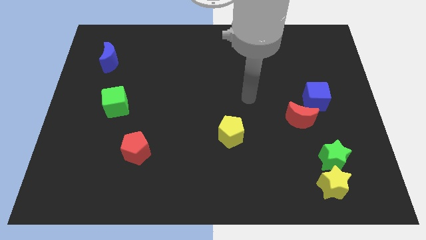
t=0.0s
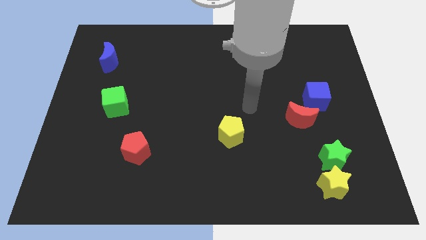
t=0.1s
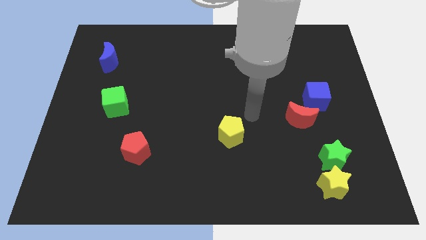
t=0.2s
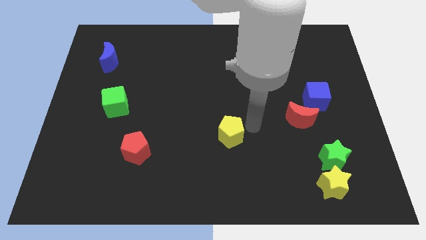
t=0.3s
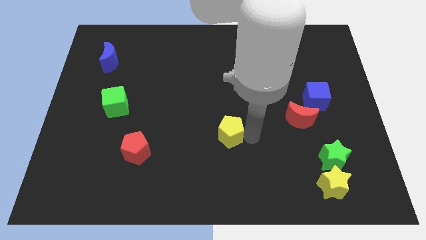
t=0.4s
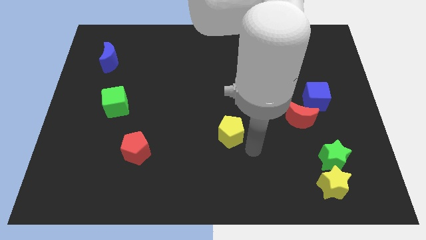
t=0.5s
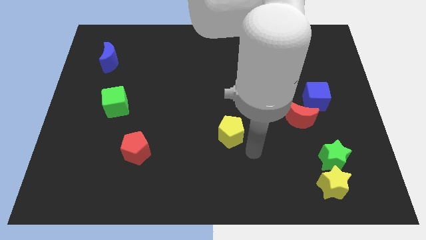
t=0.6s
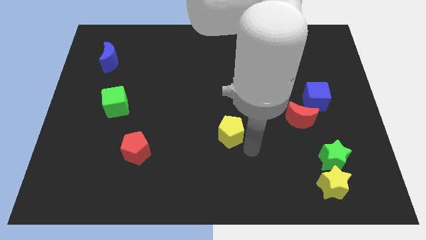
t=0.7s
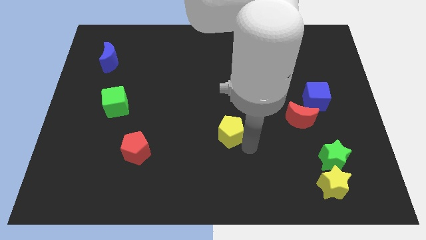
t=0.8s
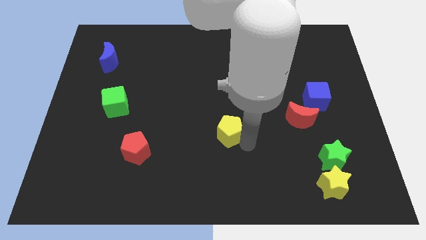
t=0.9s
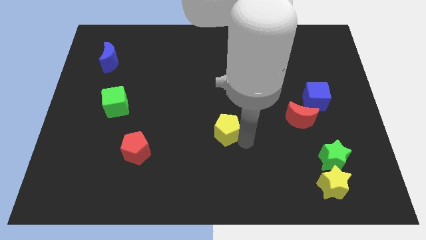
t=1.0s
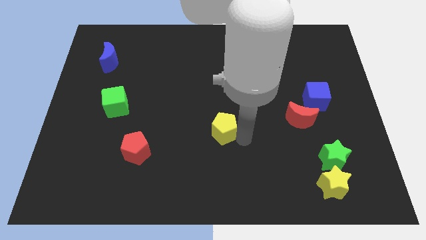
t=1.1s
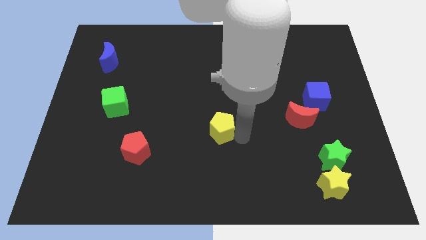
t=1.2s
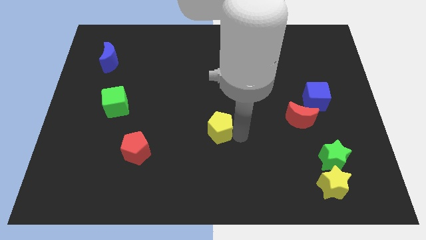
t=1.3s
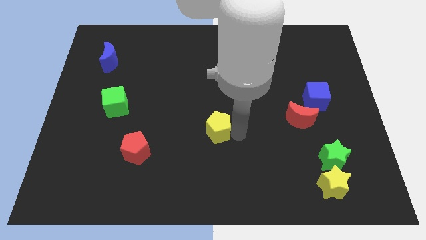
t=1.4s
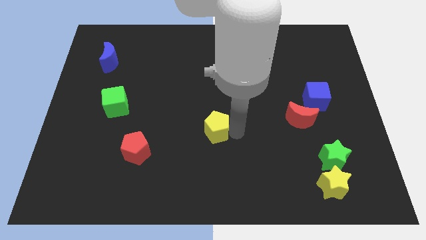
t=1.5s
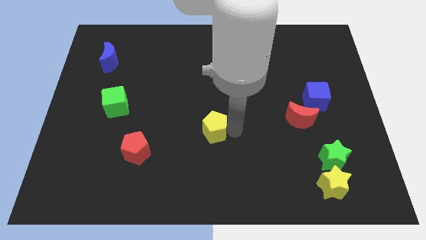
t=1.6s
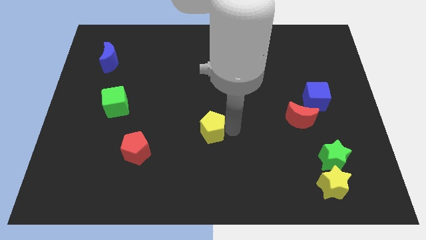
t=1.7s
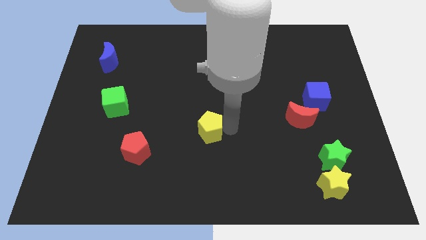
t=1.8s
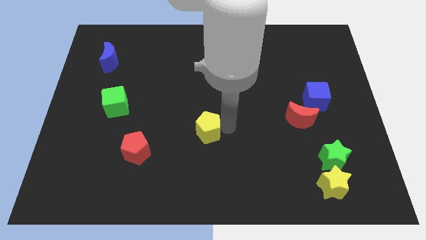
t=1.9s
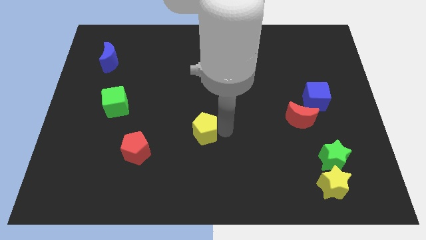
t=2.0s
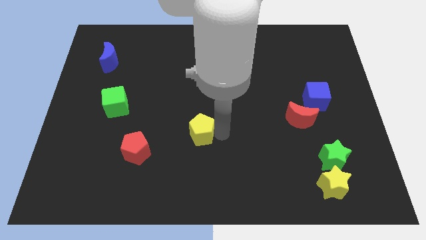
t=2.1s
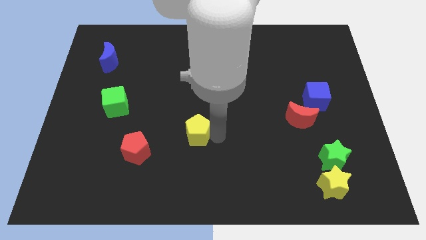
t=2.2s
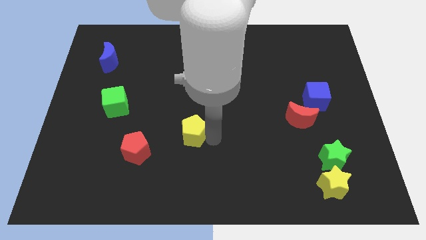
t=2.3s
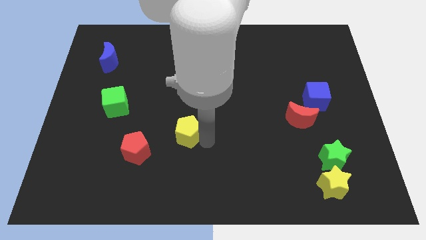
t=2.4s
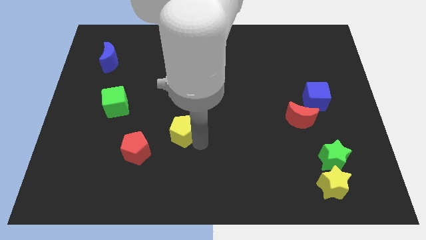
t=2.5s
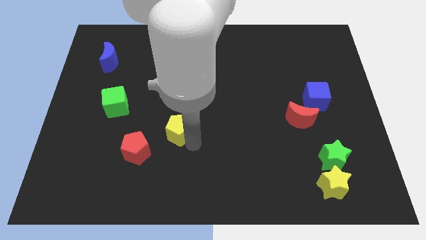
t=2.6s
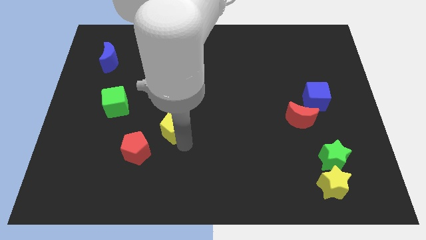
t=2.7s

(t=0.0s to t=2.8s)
move the yellow pentagon a little upwards and to the left diagonally

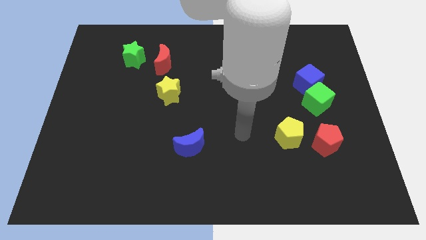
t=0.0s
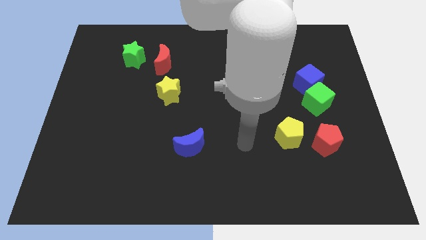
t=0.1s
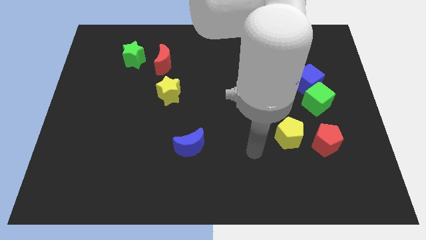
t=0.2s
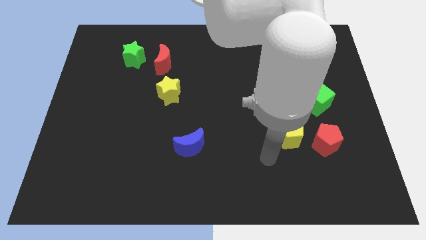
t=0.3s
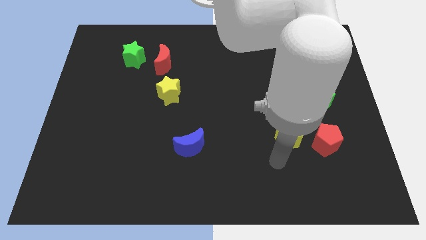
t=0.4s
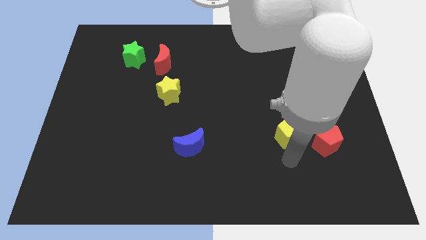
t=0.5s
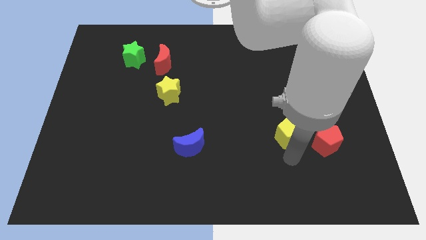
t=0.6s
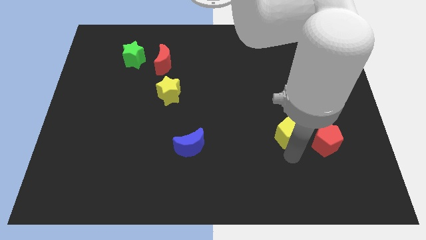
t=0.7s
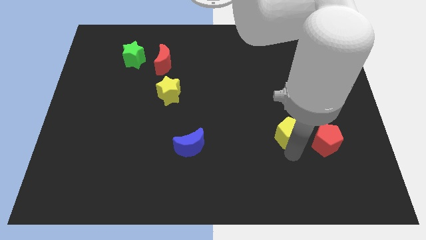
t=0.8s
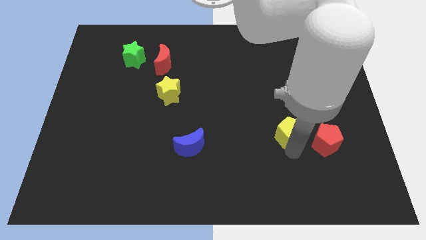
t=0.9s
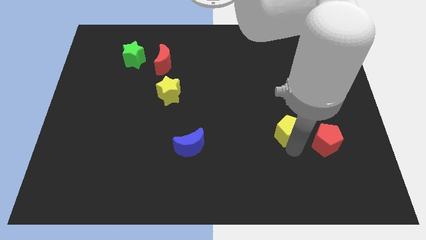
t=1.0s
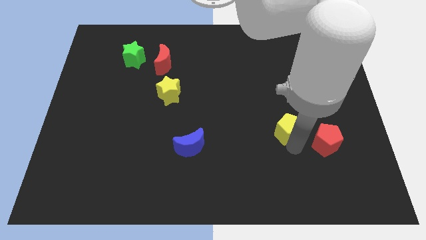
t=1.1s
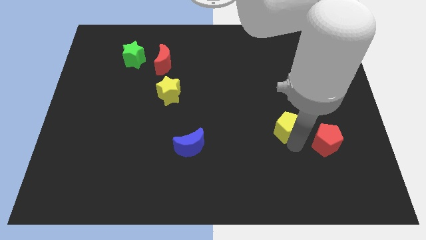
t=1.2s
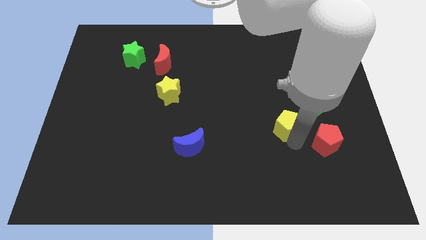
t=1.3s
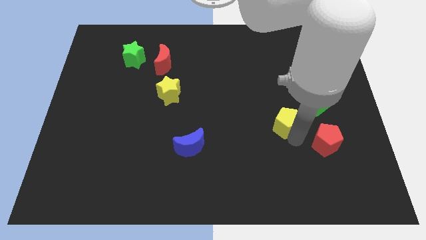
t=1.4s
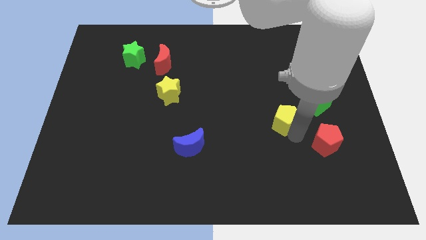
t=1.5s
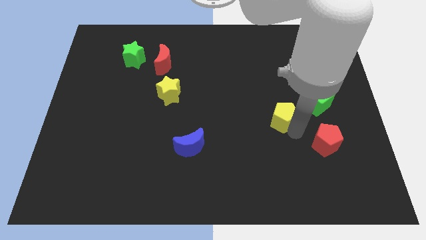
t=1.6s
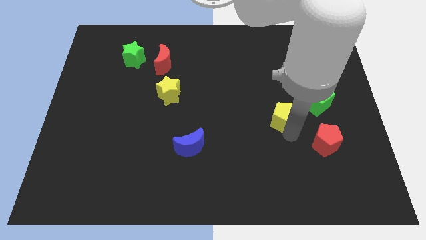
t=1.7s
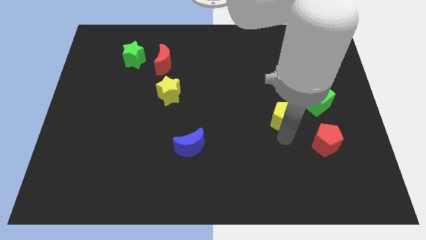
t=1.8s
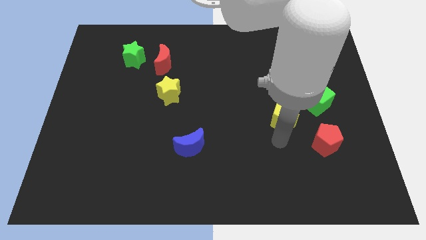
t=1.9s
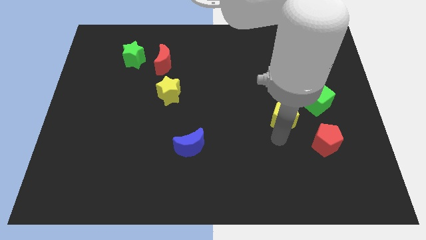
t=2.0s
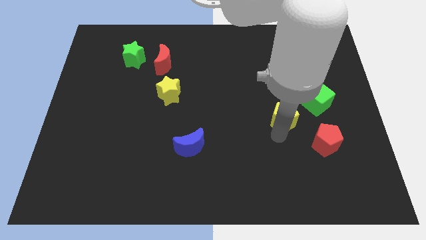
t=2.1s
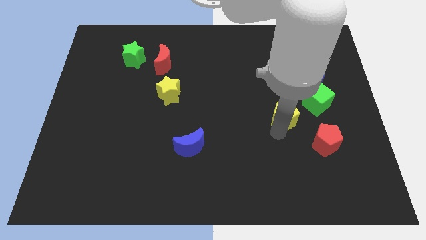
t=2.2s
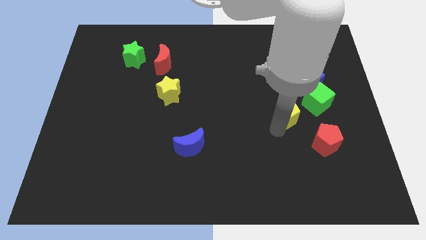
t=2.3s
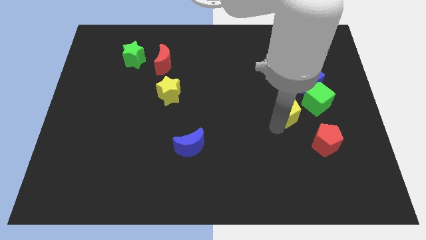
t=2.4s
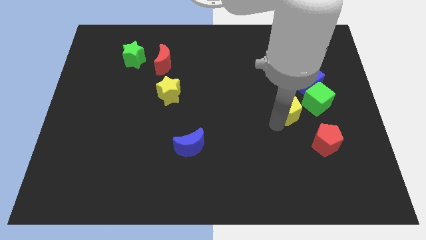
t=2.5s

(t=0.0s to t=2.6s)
push the yellow pentagon somewhat upwards

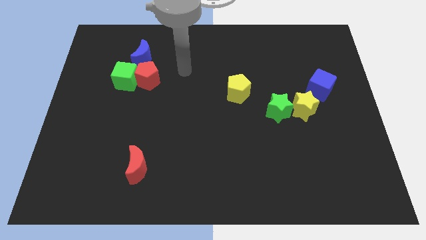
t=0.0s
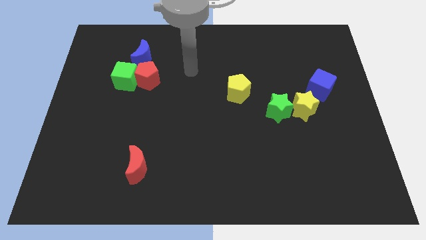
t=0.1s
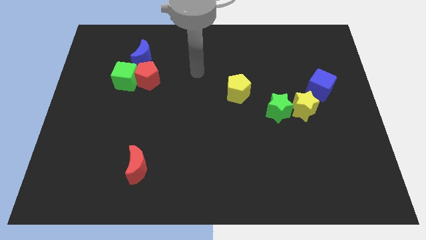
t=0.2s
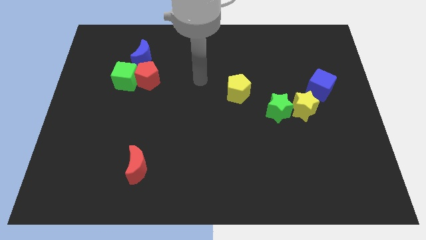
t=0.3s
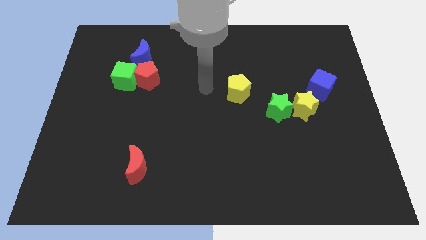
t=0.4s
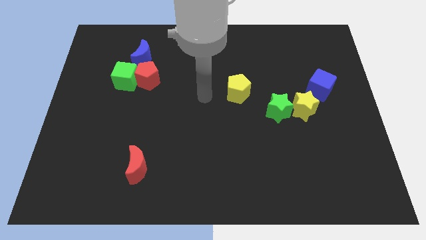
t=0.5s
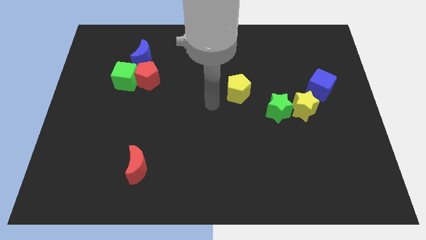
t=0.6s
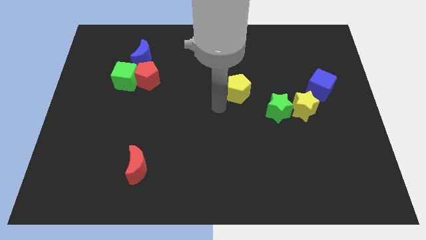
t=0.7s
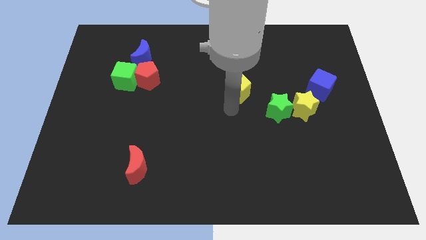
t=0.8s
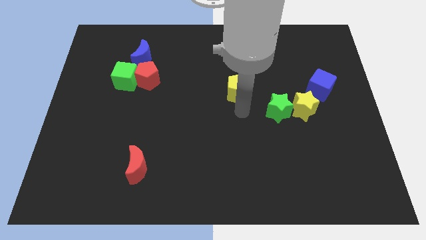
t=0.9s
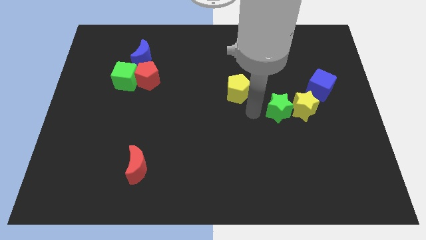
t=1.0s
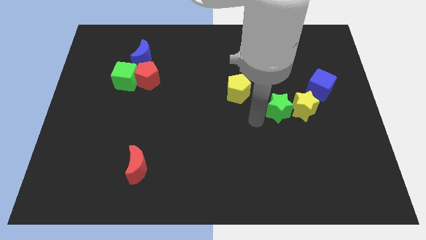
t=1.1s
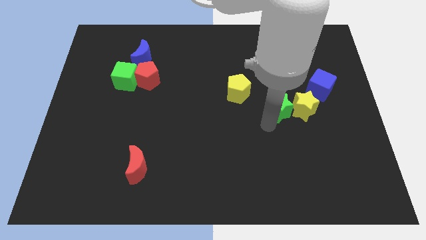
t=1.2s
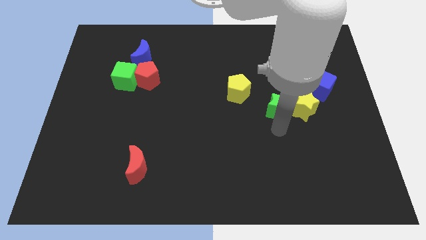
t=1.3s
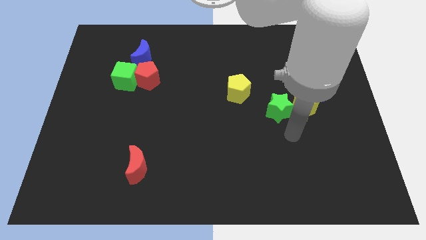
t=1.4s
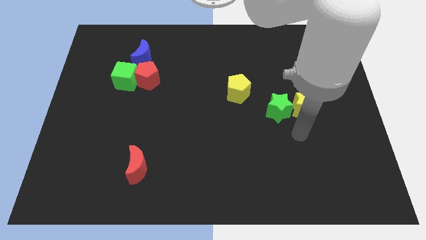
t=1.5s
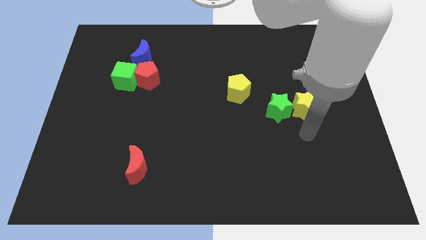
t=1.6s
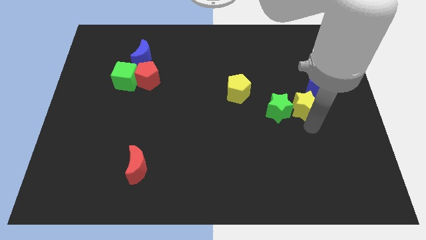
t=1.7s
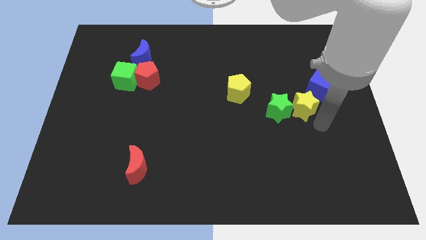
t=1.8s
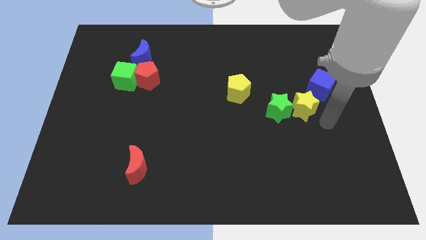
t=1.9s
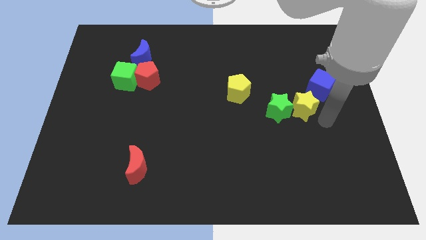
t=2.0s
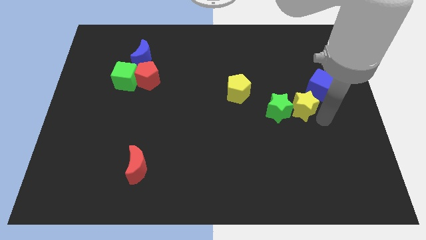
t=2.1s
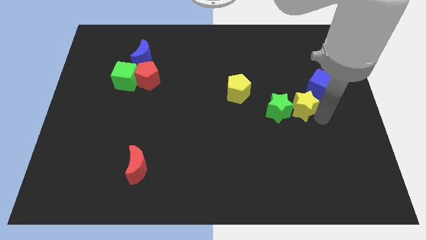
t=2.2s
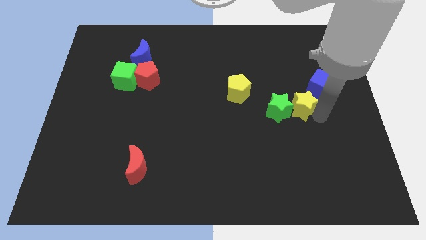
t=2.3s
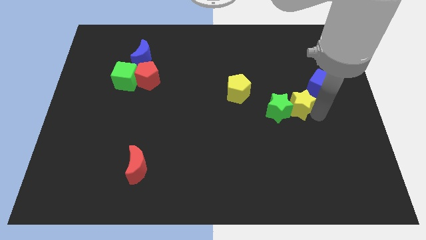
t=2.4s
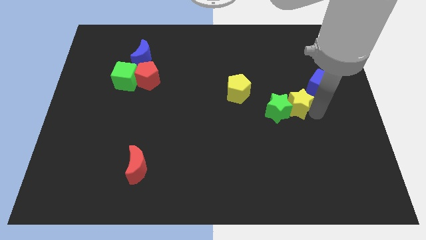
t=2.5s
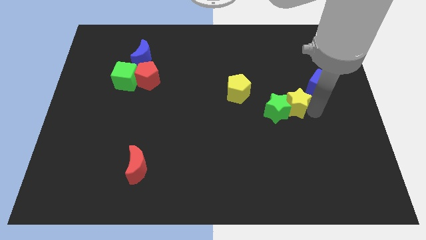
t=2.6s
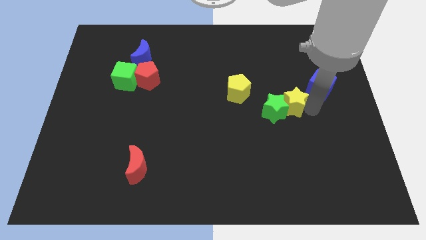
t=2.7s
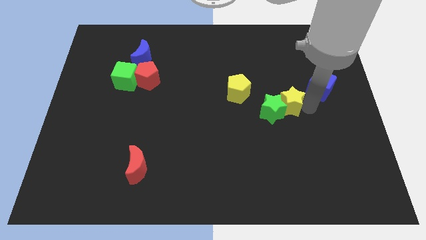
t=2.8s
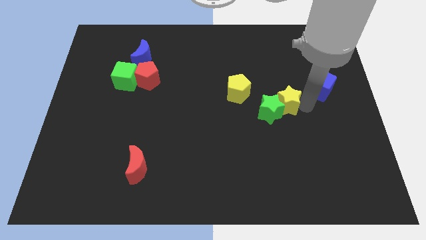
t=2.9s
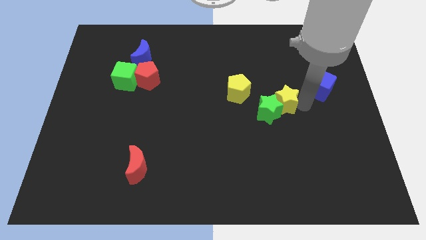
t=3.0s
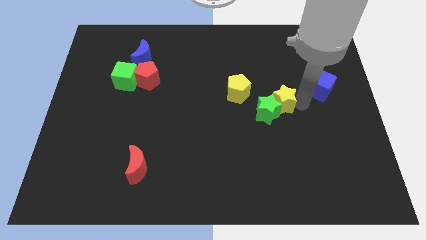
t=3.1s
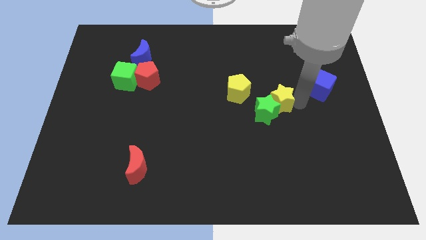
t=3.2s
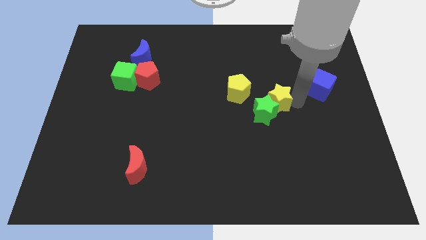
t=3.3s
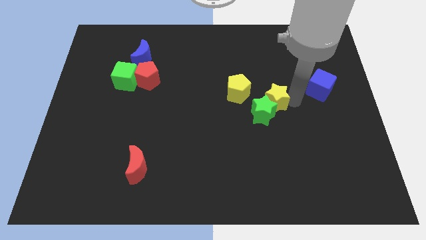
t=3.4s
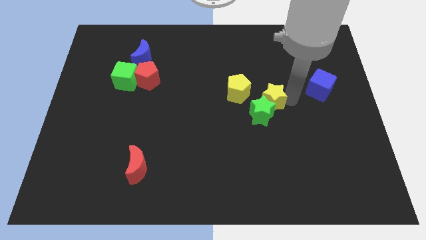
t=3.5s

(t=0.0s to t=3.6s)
push the yellow star to the left slightly
